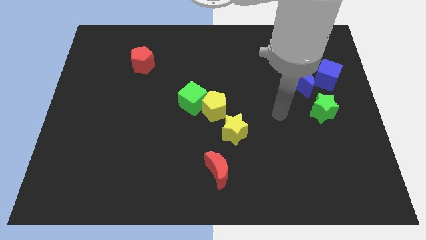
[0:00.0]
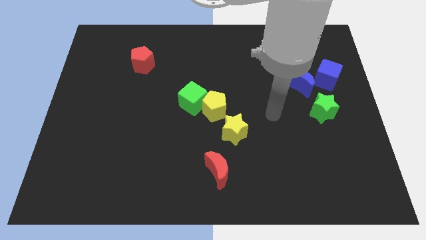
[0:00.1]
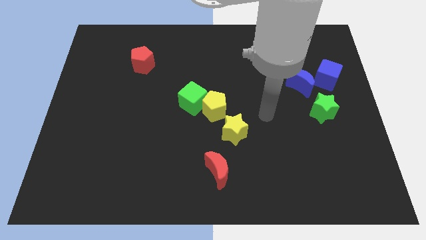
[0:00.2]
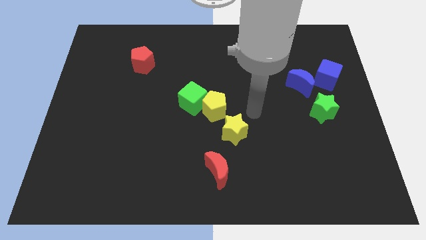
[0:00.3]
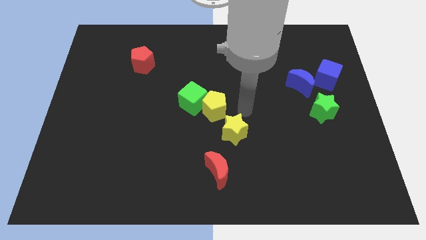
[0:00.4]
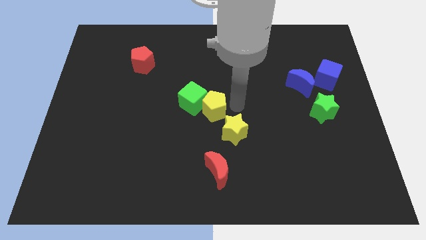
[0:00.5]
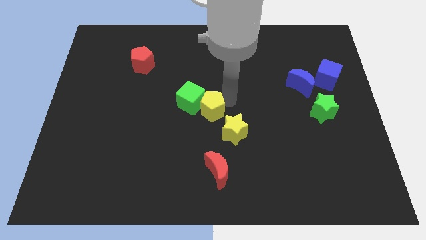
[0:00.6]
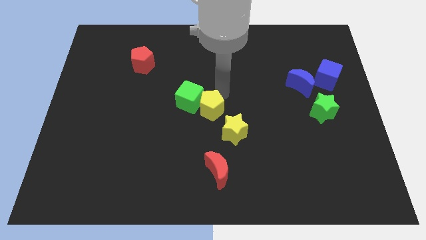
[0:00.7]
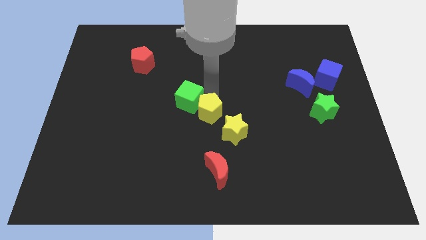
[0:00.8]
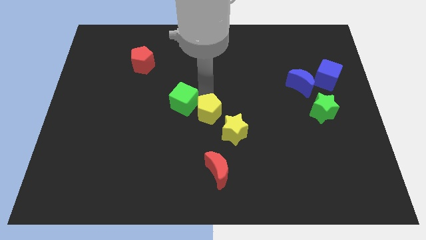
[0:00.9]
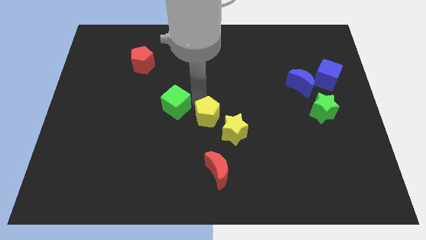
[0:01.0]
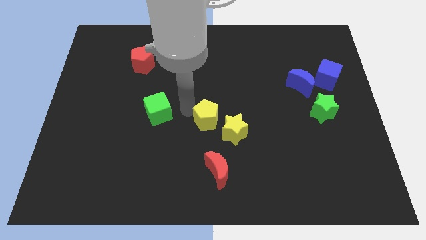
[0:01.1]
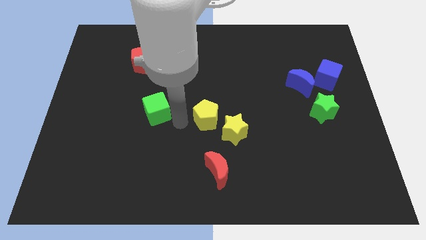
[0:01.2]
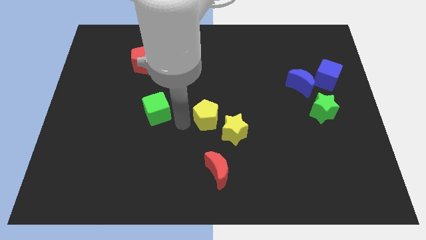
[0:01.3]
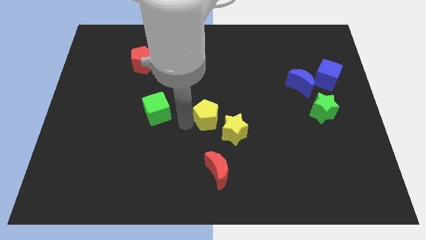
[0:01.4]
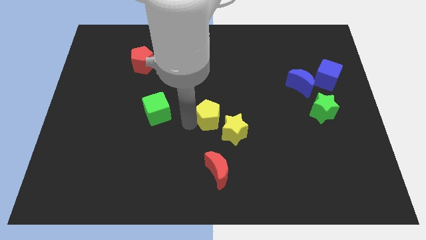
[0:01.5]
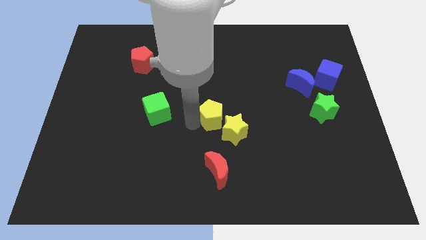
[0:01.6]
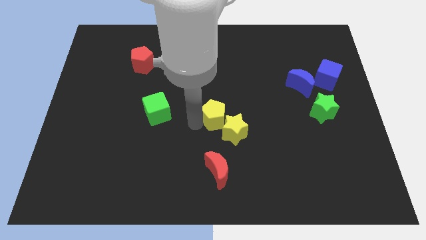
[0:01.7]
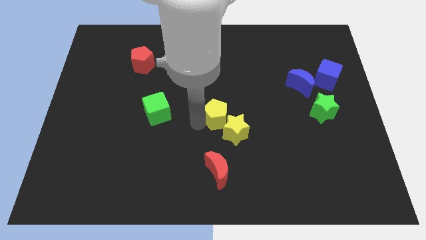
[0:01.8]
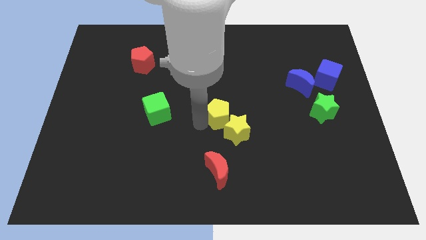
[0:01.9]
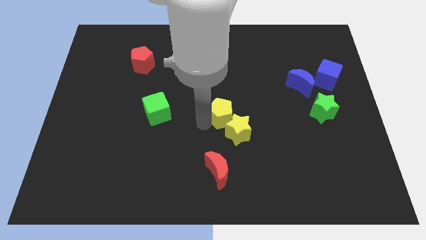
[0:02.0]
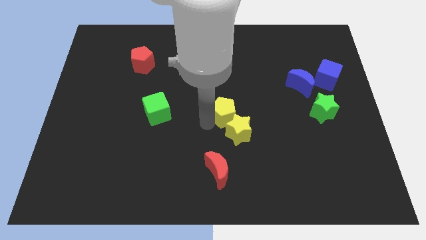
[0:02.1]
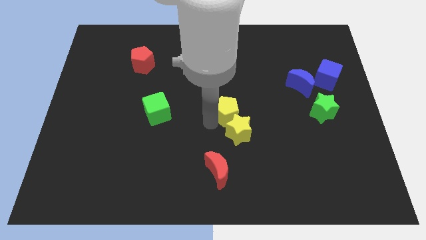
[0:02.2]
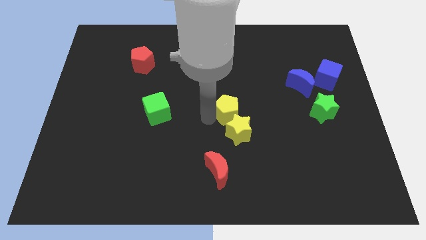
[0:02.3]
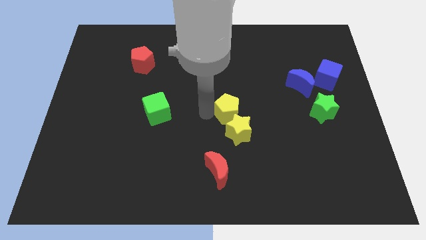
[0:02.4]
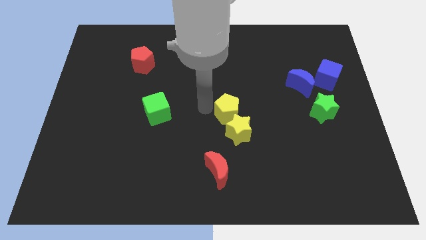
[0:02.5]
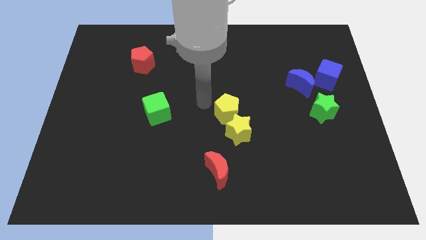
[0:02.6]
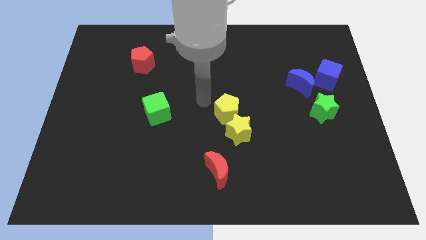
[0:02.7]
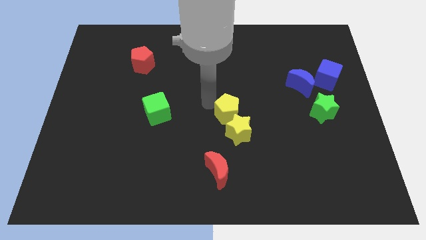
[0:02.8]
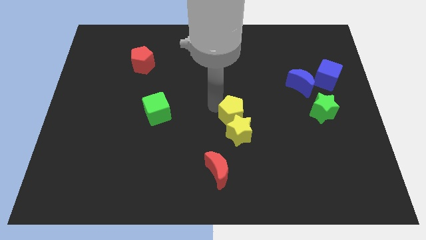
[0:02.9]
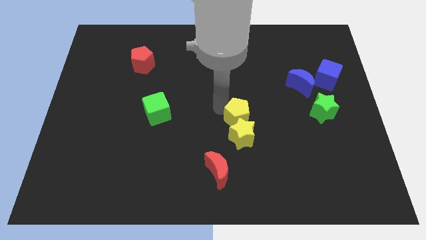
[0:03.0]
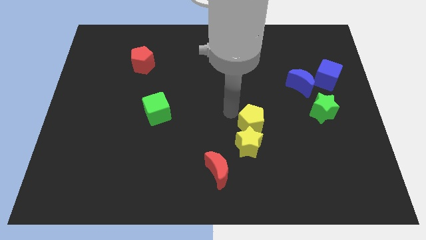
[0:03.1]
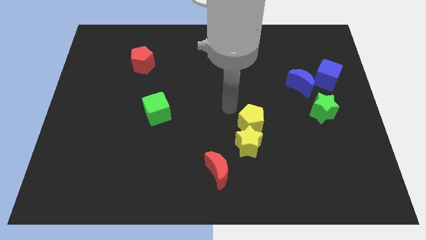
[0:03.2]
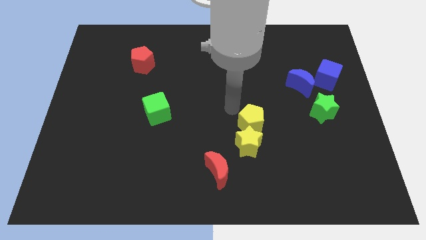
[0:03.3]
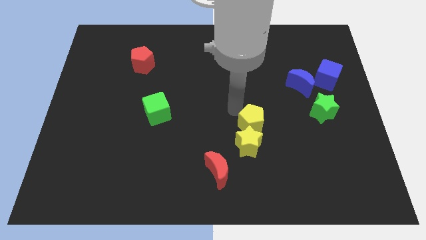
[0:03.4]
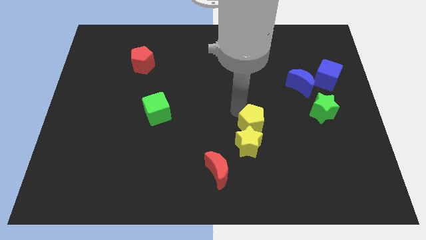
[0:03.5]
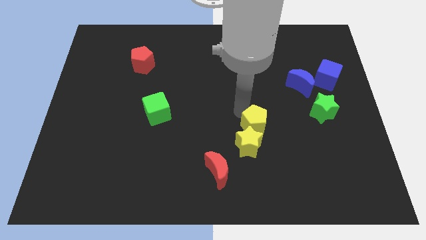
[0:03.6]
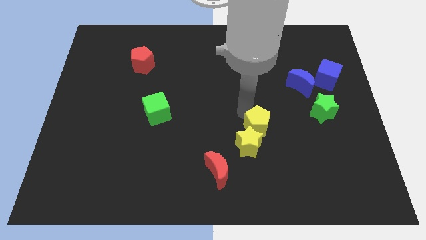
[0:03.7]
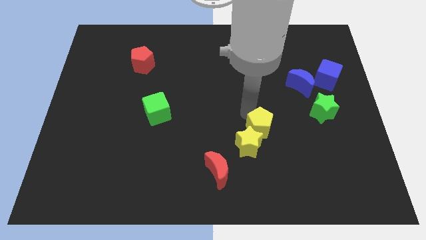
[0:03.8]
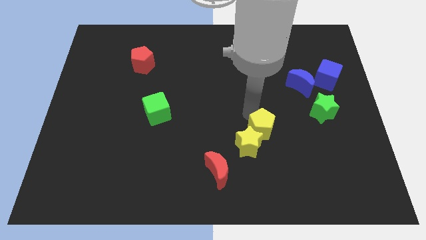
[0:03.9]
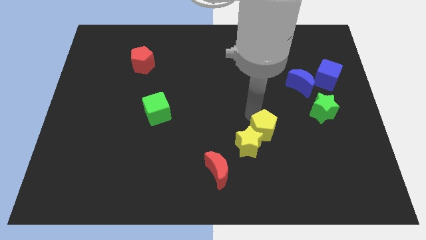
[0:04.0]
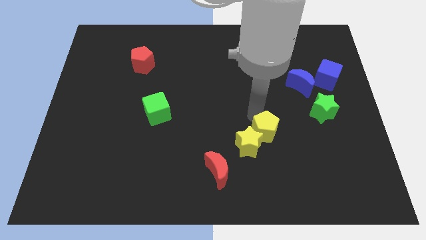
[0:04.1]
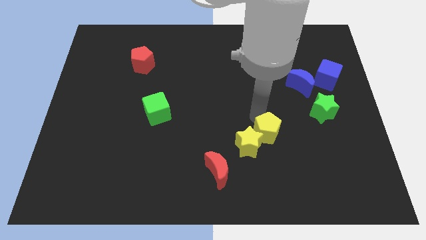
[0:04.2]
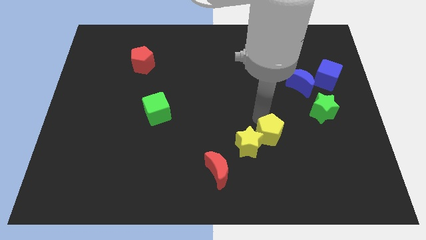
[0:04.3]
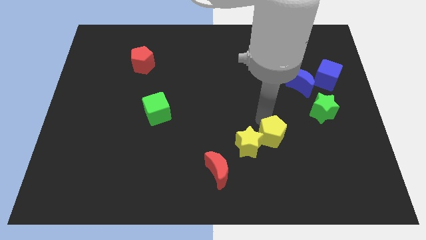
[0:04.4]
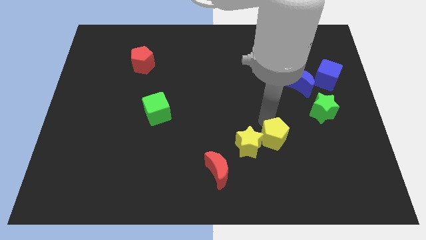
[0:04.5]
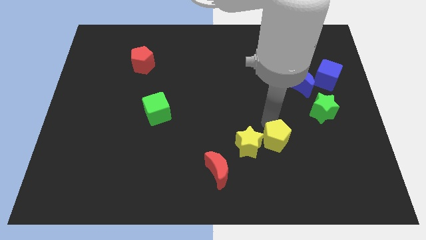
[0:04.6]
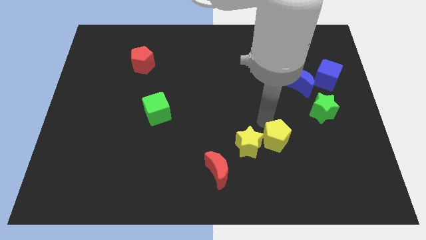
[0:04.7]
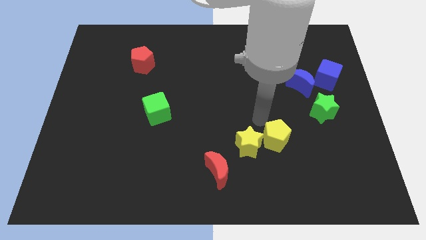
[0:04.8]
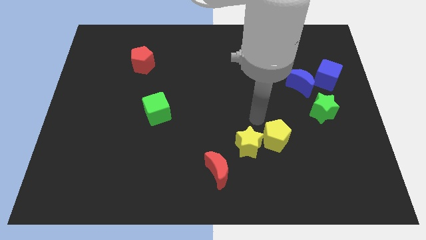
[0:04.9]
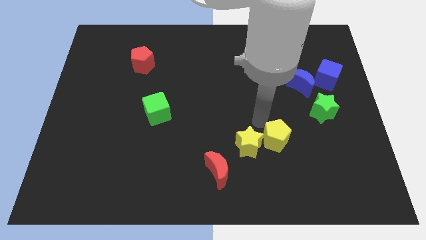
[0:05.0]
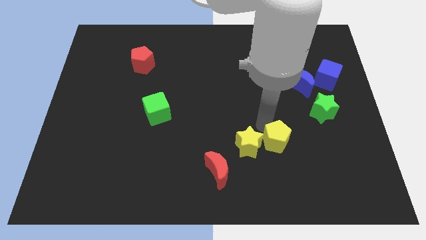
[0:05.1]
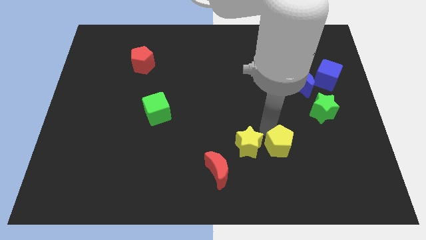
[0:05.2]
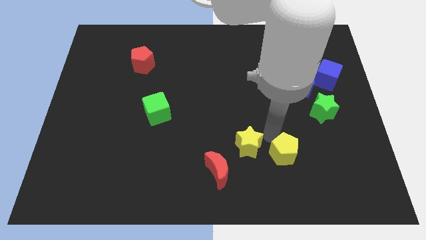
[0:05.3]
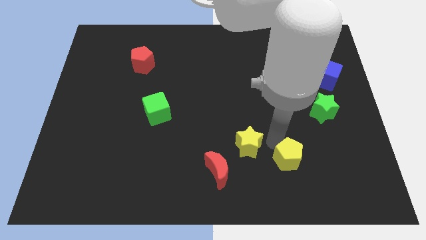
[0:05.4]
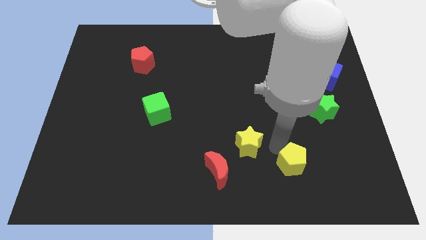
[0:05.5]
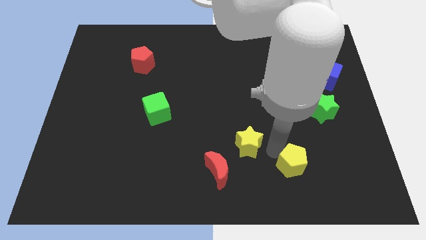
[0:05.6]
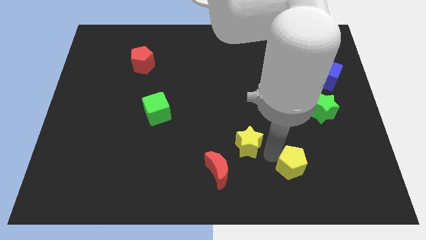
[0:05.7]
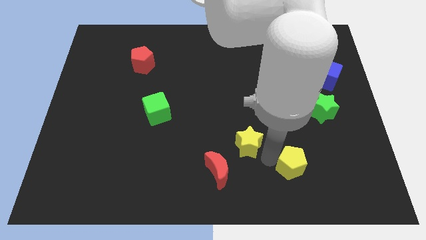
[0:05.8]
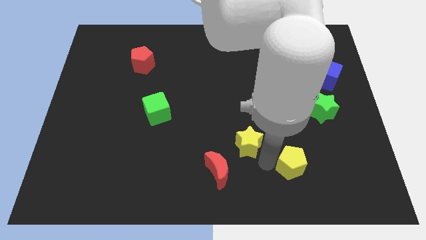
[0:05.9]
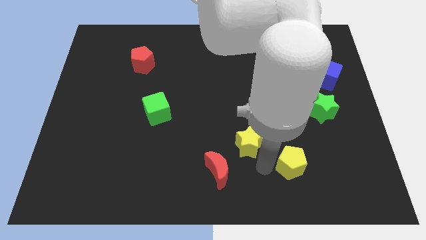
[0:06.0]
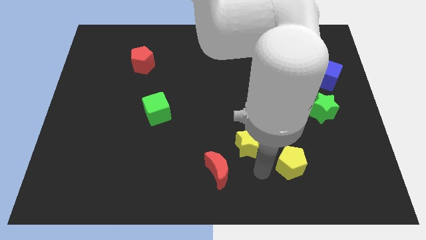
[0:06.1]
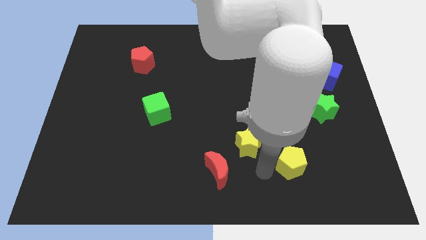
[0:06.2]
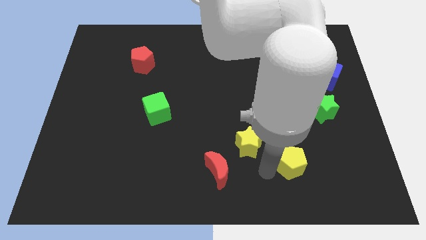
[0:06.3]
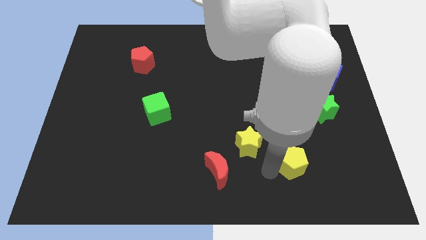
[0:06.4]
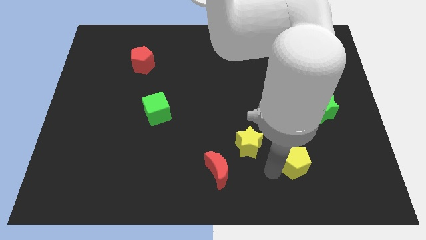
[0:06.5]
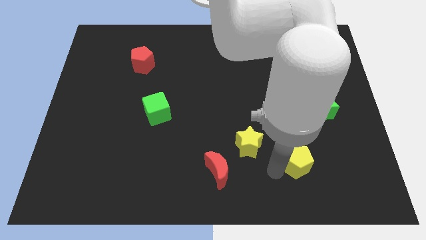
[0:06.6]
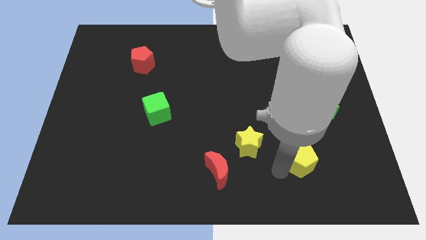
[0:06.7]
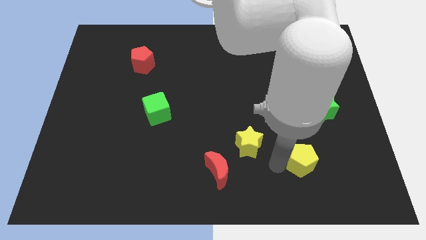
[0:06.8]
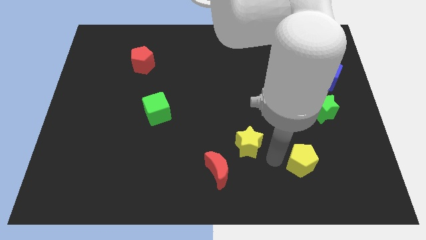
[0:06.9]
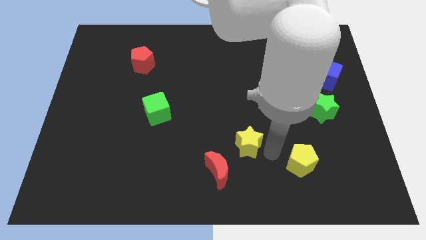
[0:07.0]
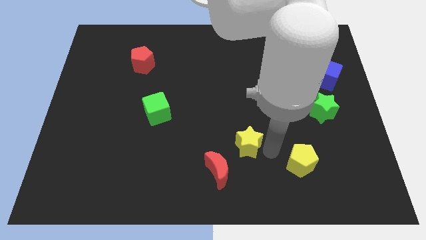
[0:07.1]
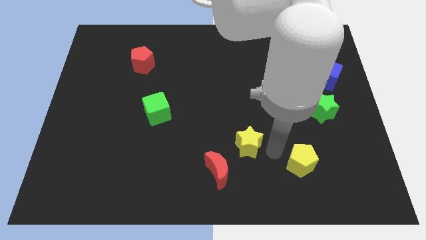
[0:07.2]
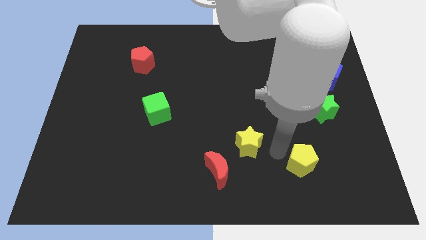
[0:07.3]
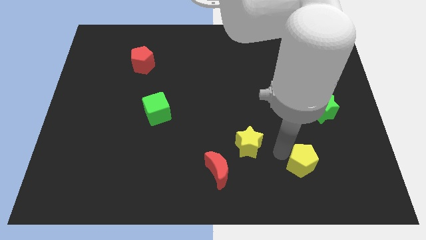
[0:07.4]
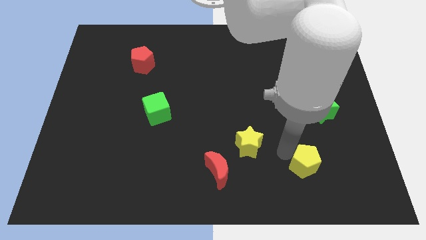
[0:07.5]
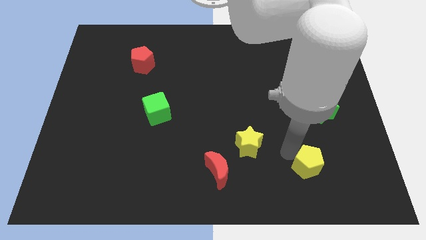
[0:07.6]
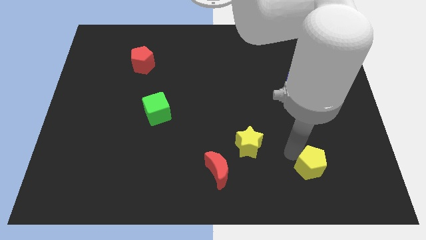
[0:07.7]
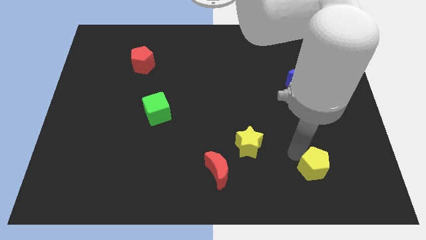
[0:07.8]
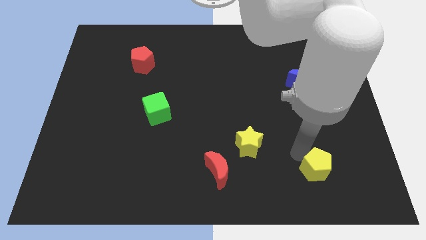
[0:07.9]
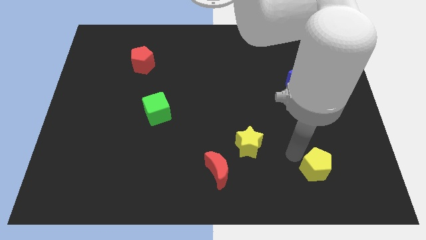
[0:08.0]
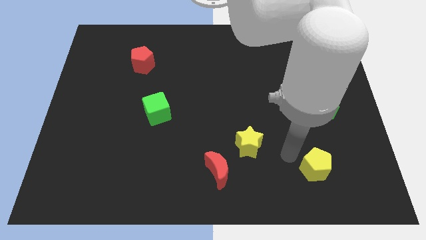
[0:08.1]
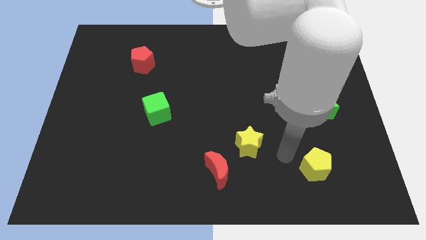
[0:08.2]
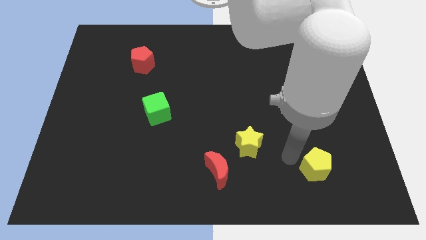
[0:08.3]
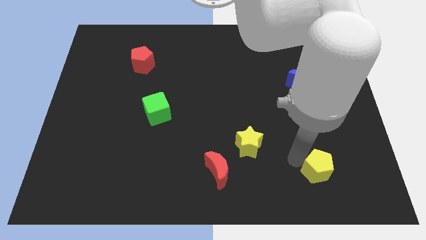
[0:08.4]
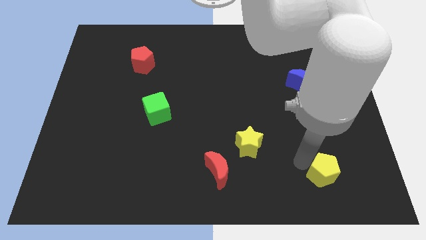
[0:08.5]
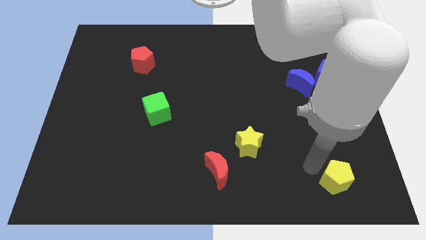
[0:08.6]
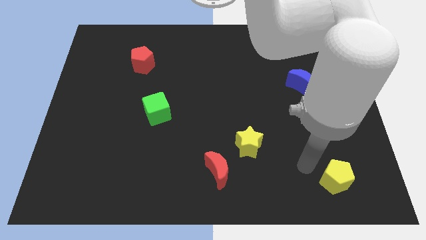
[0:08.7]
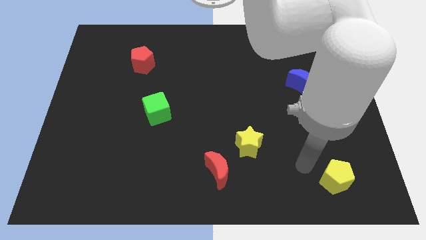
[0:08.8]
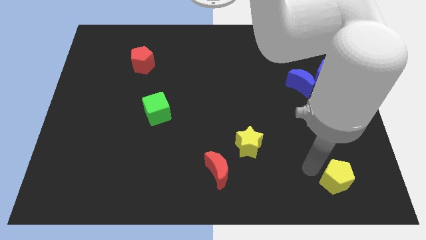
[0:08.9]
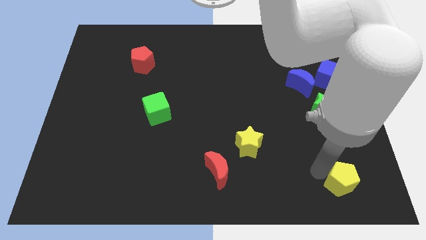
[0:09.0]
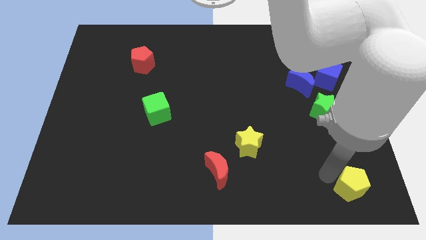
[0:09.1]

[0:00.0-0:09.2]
move the yellow pentagon to the bottom right
